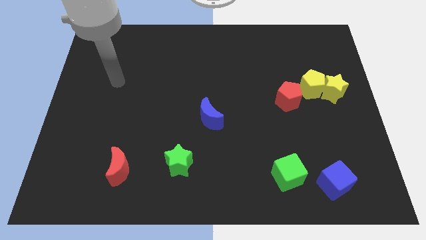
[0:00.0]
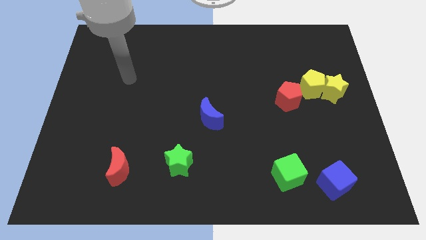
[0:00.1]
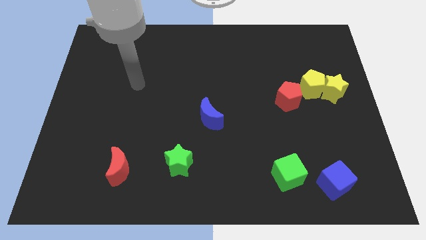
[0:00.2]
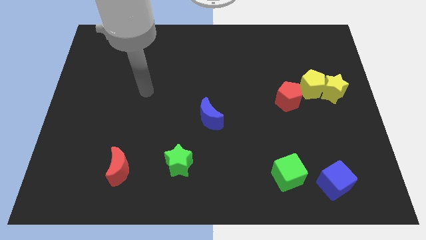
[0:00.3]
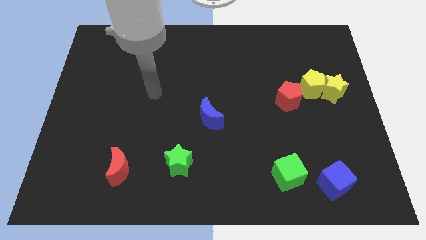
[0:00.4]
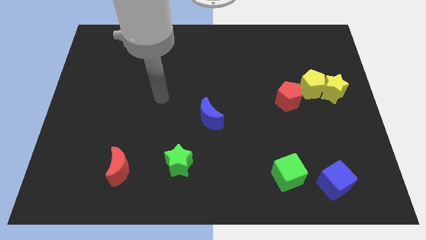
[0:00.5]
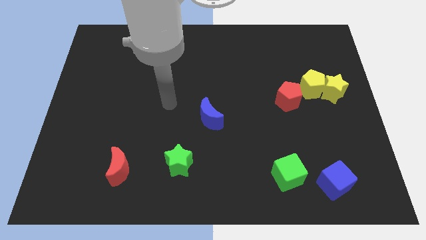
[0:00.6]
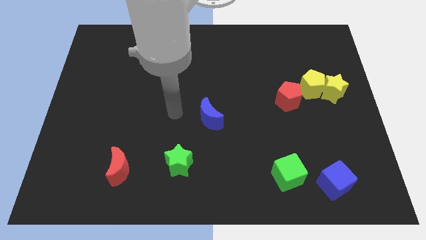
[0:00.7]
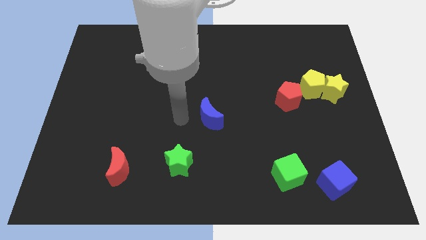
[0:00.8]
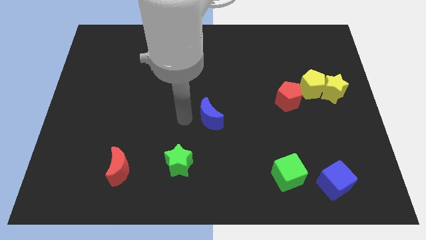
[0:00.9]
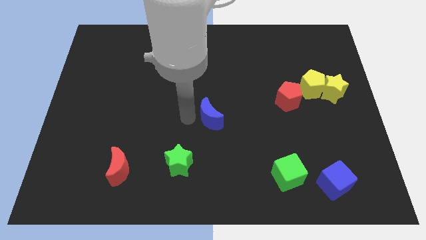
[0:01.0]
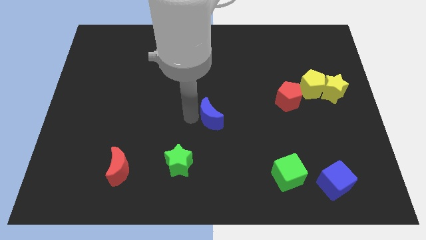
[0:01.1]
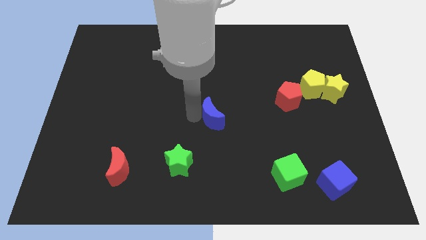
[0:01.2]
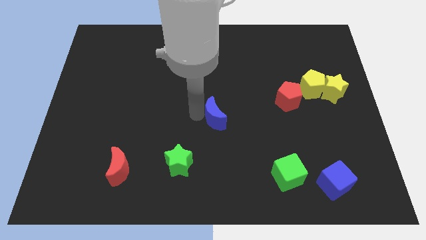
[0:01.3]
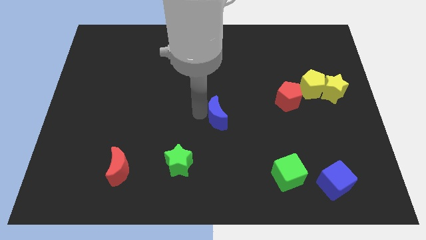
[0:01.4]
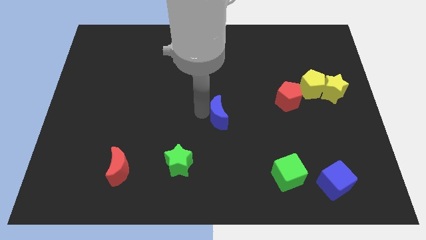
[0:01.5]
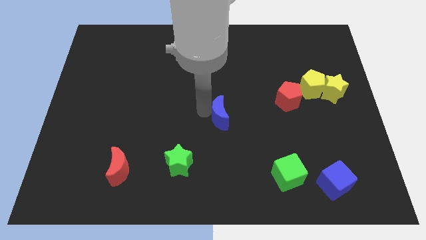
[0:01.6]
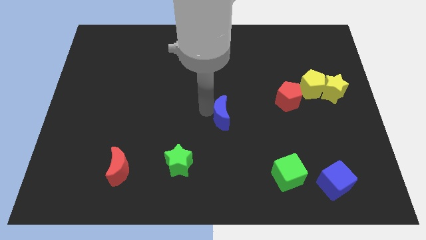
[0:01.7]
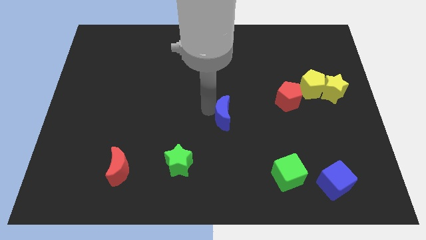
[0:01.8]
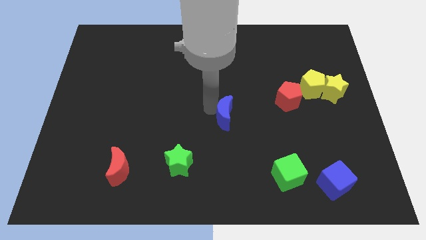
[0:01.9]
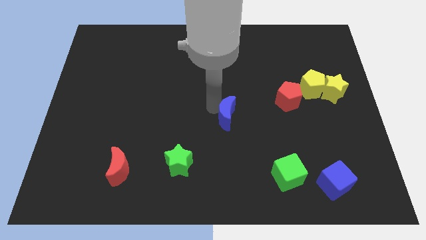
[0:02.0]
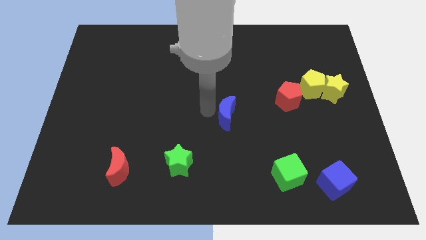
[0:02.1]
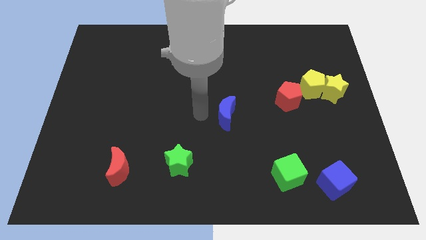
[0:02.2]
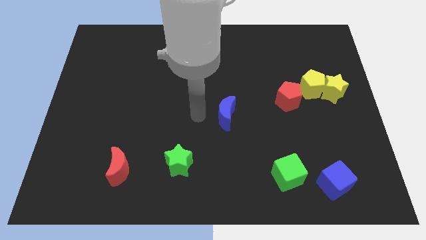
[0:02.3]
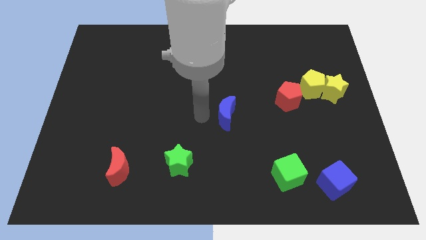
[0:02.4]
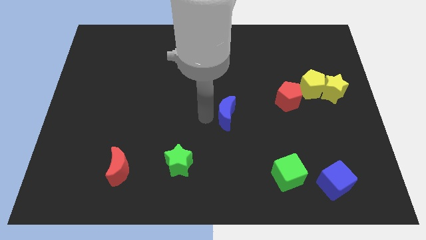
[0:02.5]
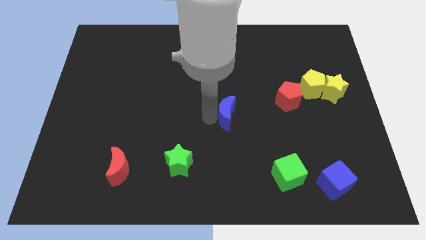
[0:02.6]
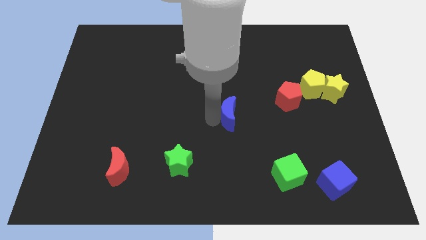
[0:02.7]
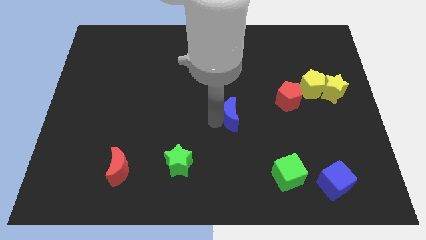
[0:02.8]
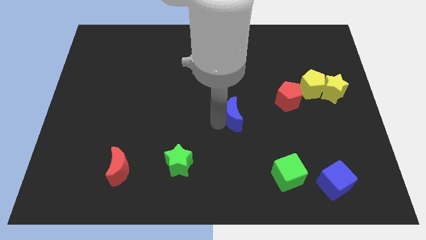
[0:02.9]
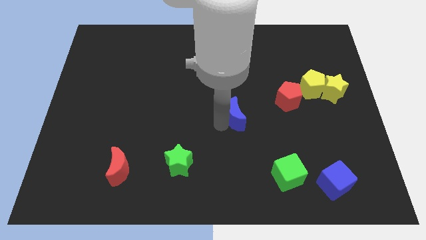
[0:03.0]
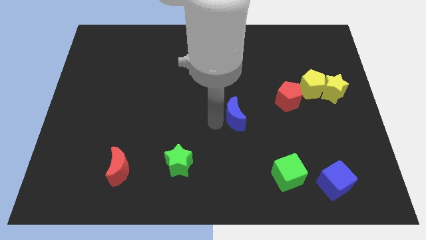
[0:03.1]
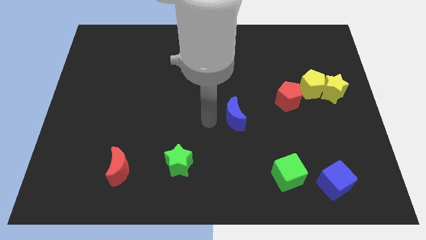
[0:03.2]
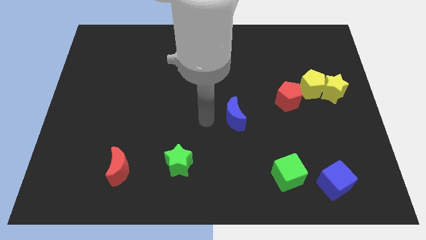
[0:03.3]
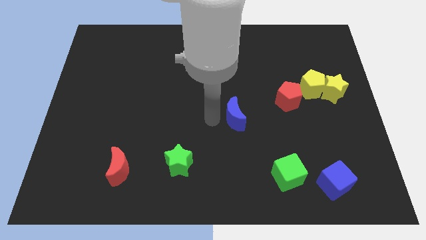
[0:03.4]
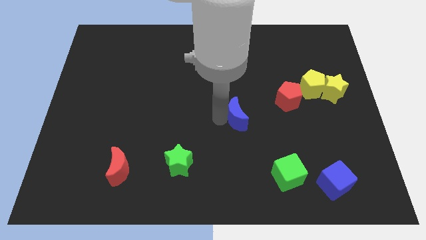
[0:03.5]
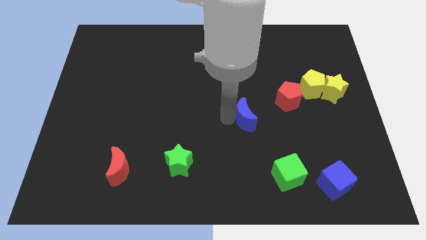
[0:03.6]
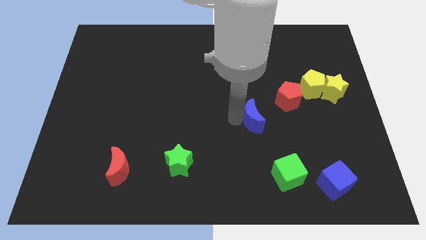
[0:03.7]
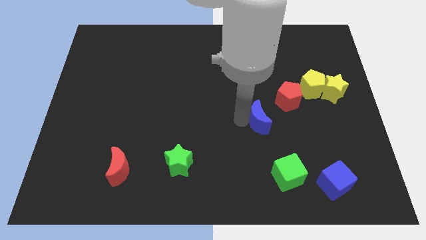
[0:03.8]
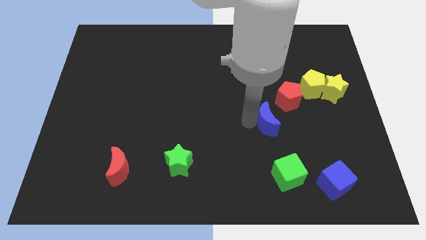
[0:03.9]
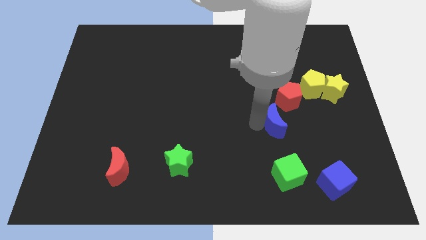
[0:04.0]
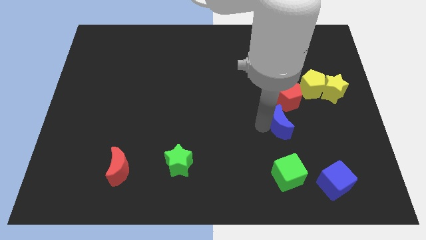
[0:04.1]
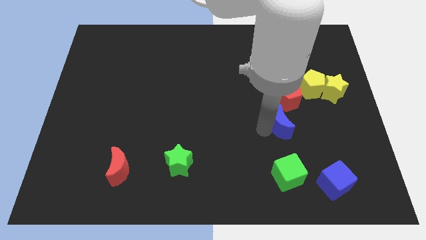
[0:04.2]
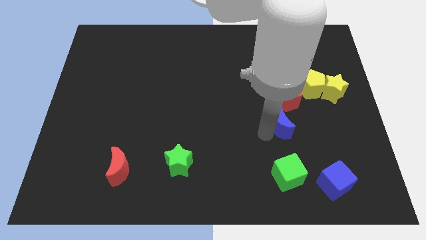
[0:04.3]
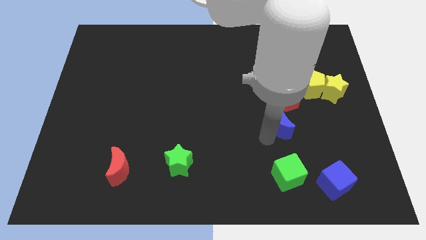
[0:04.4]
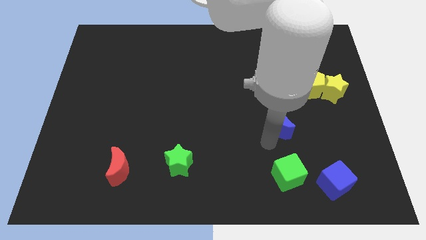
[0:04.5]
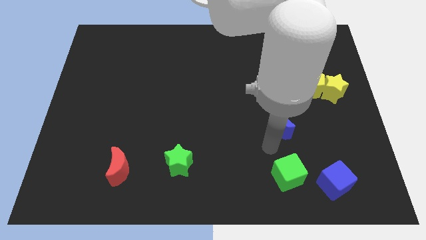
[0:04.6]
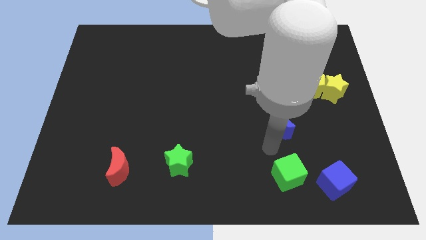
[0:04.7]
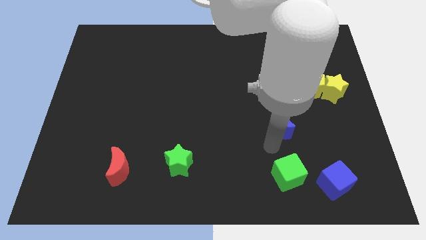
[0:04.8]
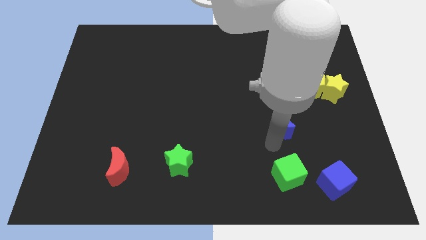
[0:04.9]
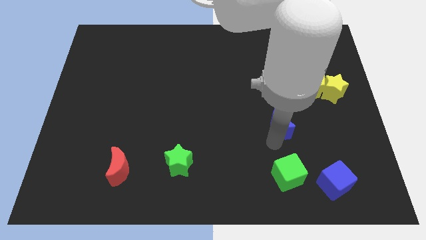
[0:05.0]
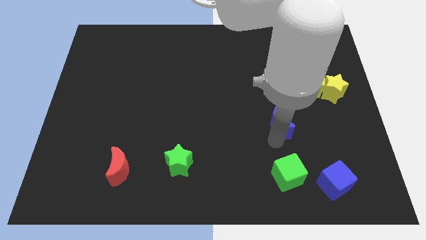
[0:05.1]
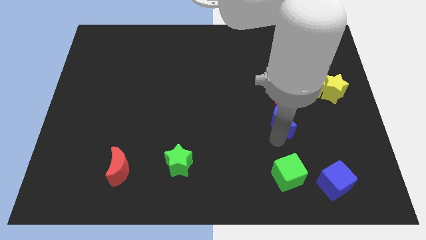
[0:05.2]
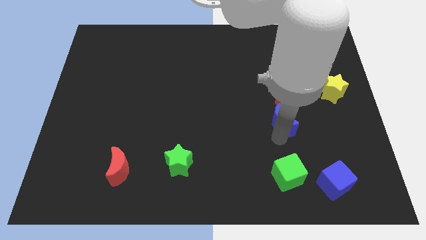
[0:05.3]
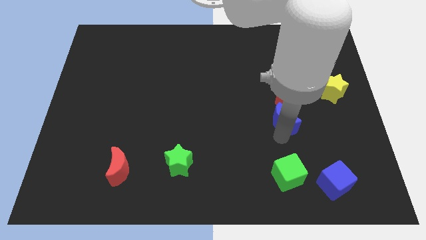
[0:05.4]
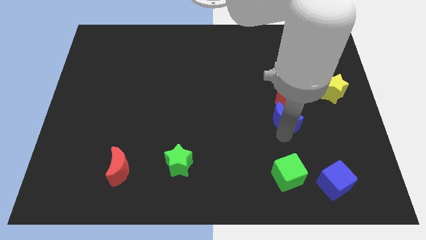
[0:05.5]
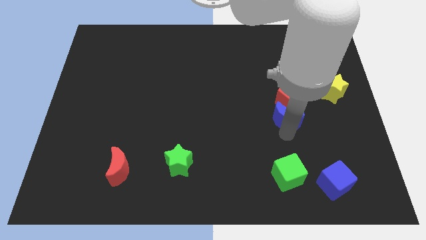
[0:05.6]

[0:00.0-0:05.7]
push the blue moon to the bottom left side of the yellow pentagon

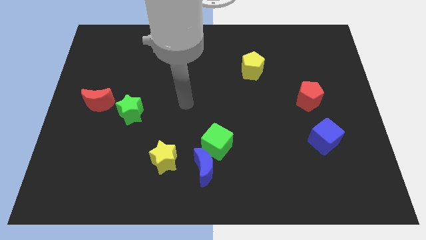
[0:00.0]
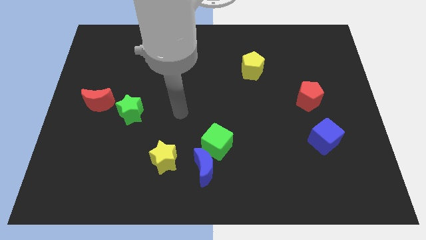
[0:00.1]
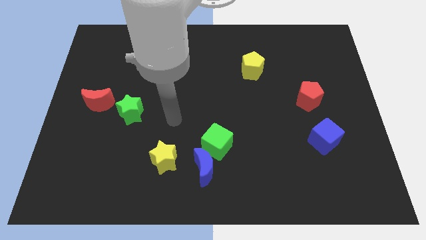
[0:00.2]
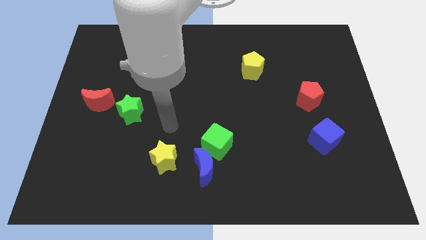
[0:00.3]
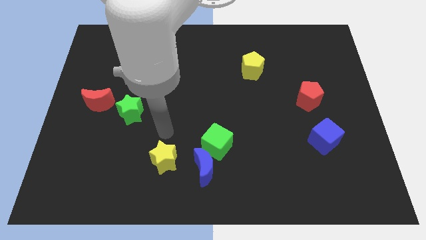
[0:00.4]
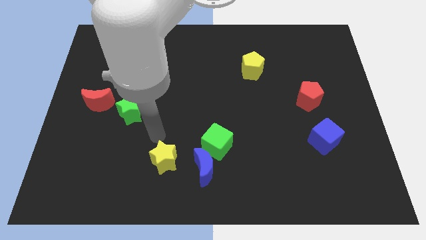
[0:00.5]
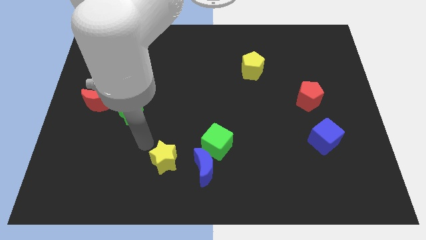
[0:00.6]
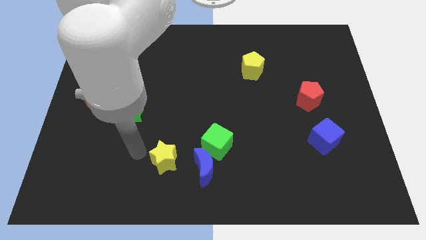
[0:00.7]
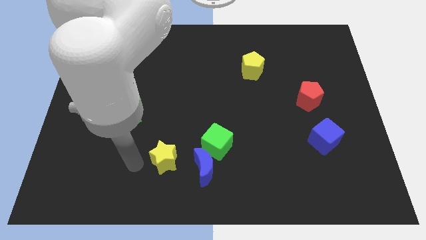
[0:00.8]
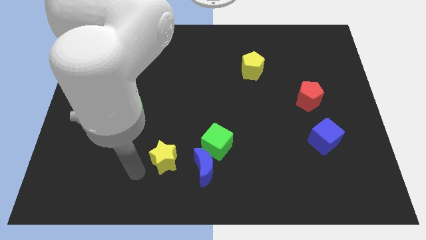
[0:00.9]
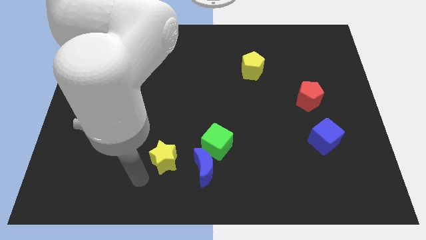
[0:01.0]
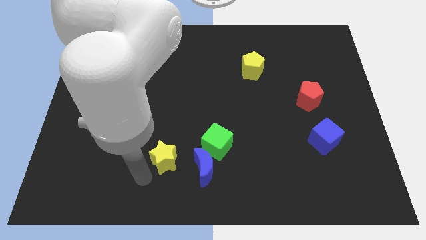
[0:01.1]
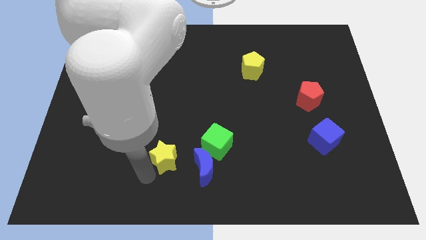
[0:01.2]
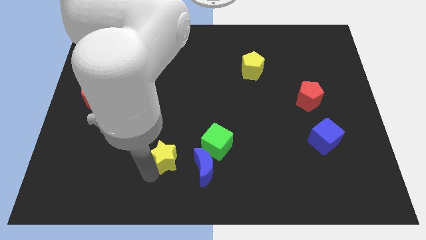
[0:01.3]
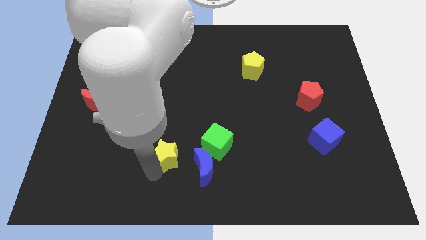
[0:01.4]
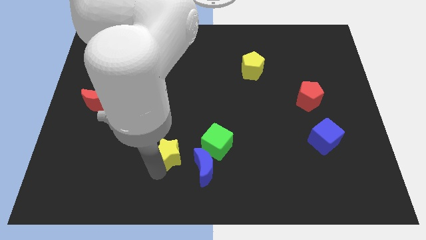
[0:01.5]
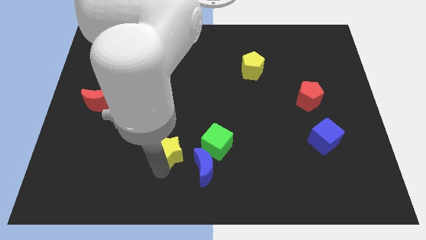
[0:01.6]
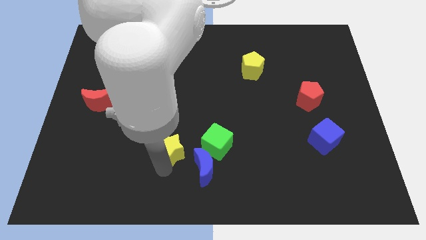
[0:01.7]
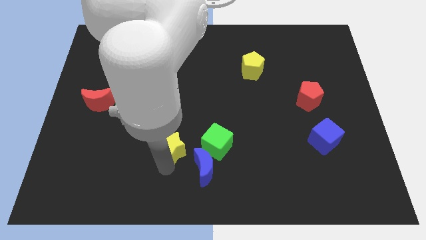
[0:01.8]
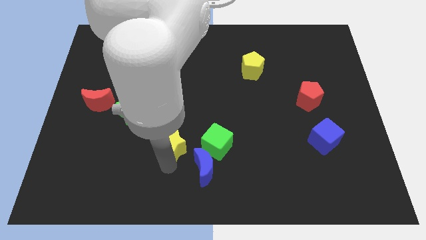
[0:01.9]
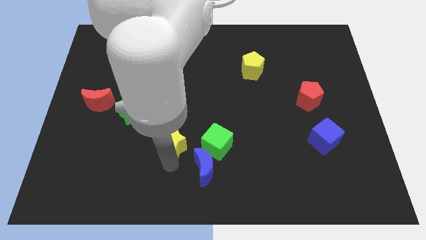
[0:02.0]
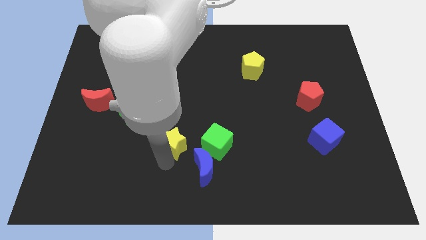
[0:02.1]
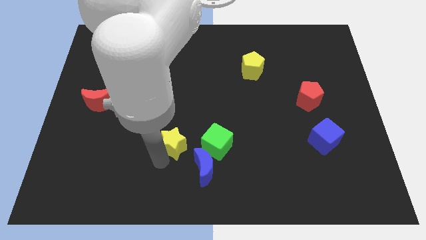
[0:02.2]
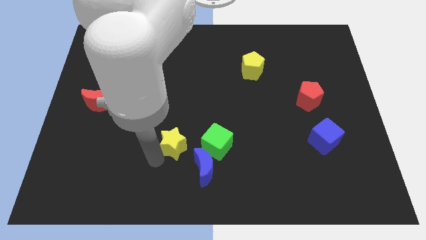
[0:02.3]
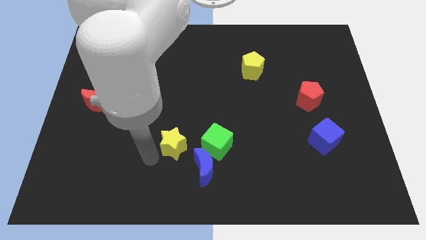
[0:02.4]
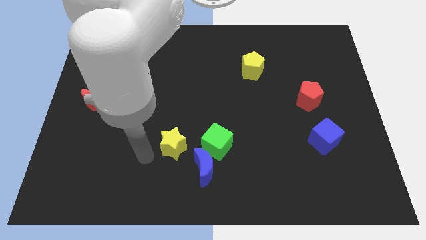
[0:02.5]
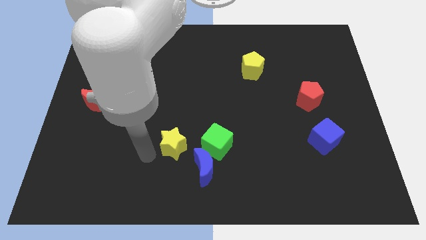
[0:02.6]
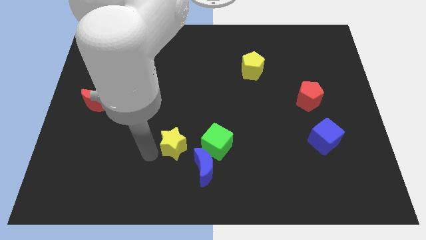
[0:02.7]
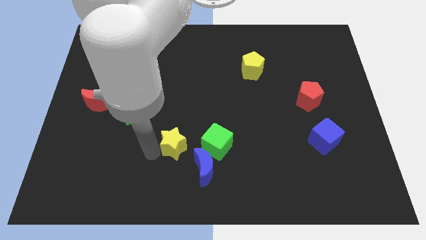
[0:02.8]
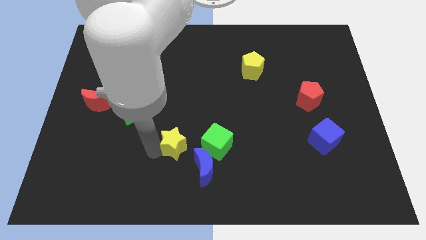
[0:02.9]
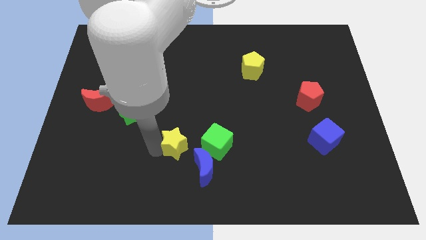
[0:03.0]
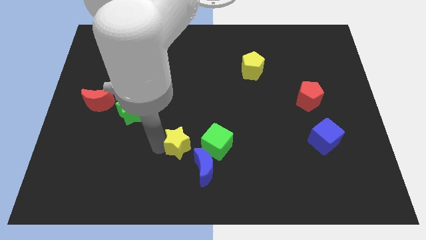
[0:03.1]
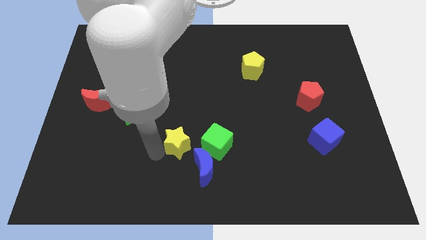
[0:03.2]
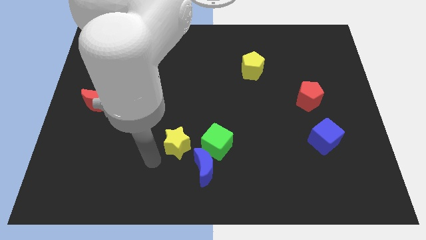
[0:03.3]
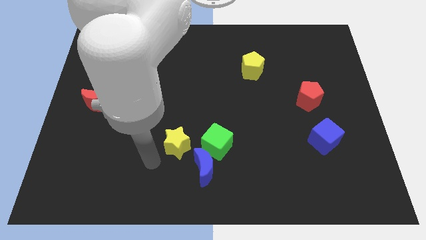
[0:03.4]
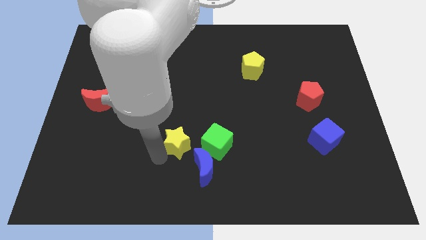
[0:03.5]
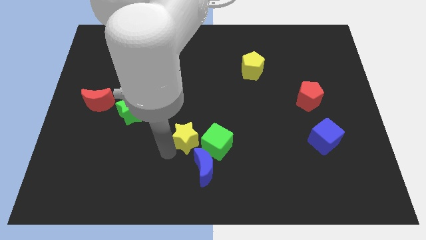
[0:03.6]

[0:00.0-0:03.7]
move the yellow star to the top side of the blue moon
